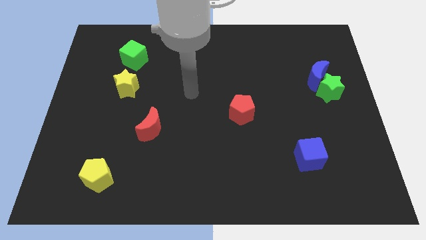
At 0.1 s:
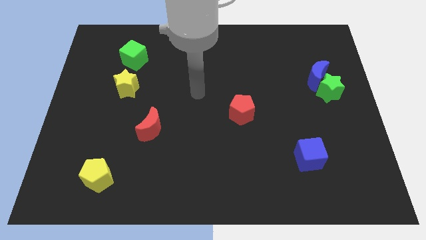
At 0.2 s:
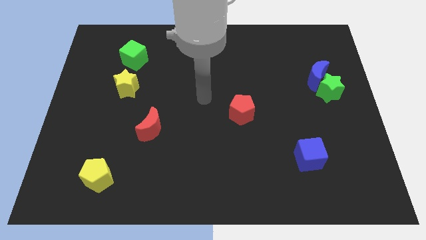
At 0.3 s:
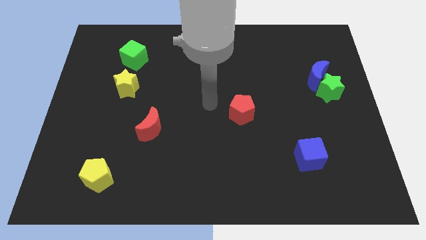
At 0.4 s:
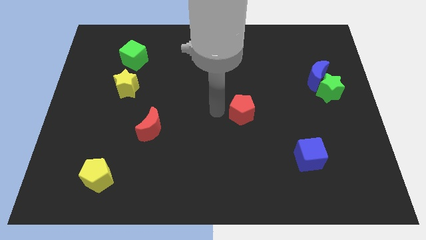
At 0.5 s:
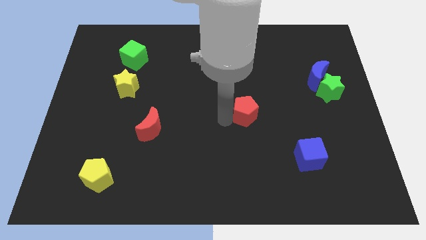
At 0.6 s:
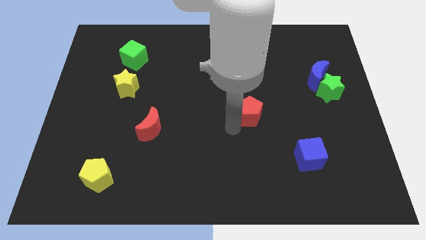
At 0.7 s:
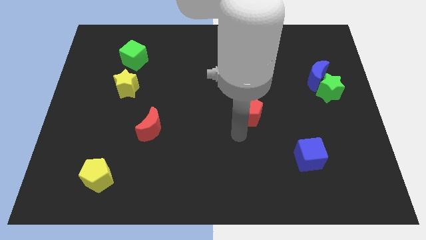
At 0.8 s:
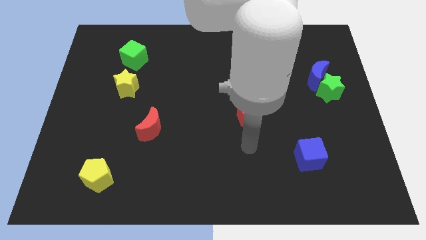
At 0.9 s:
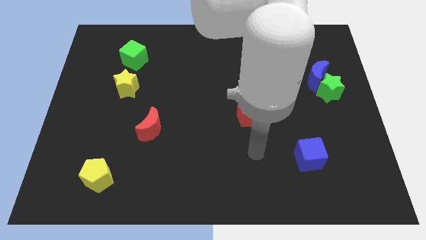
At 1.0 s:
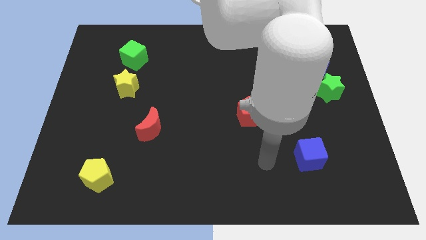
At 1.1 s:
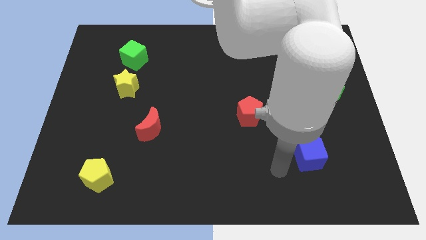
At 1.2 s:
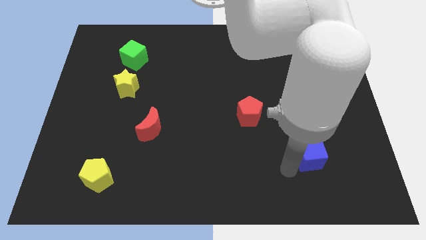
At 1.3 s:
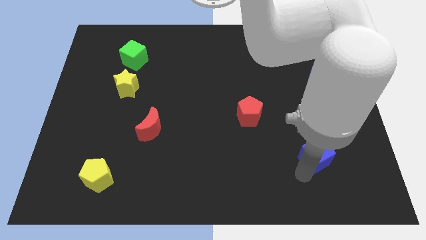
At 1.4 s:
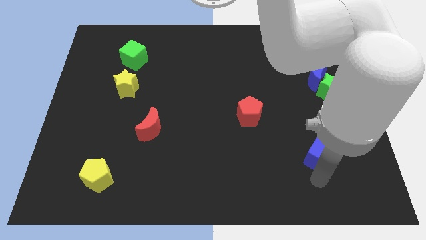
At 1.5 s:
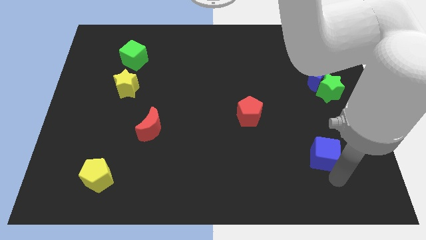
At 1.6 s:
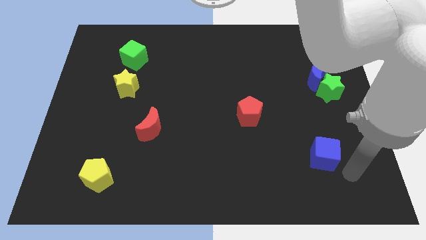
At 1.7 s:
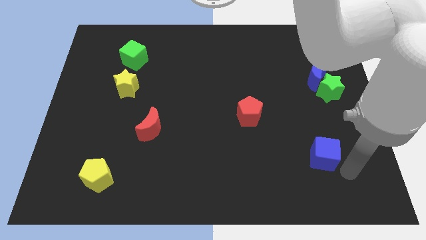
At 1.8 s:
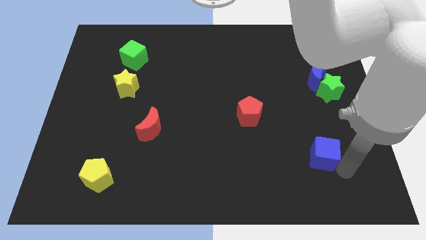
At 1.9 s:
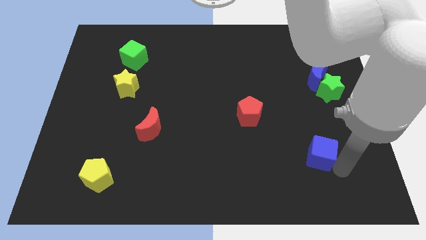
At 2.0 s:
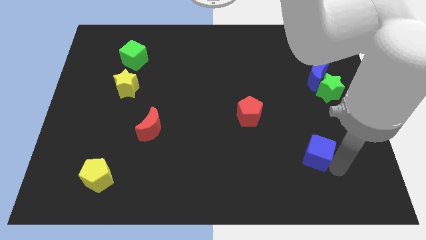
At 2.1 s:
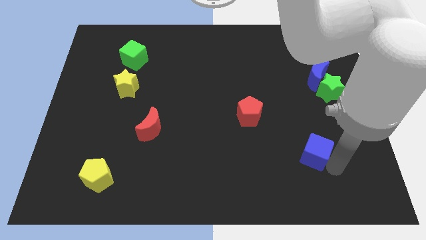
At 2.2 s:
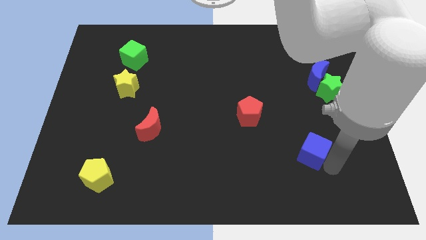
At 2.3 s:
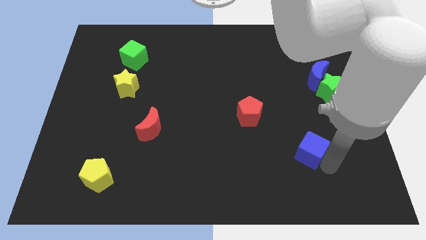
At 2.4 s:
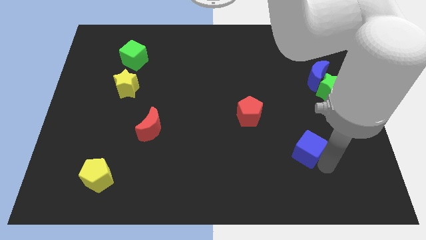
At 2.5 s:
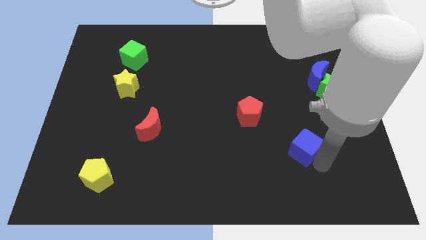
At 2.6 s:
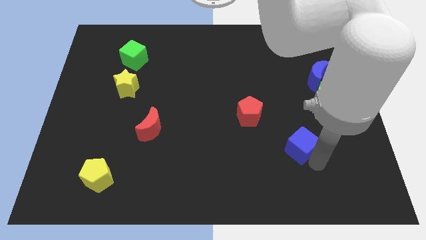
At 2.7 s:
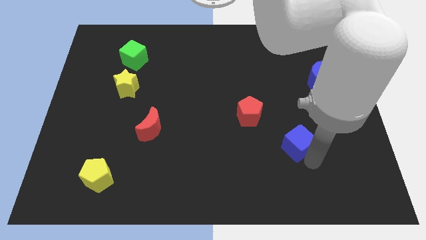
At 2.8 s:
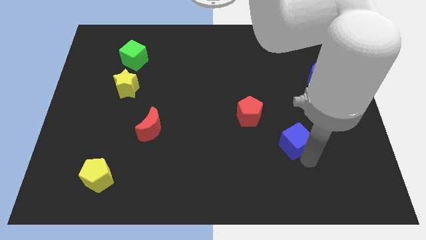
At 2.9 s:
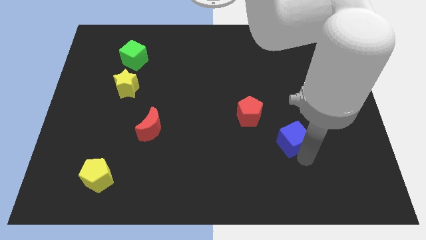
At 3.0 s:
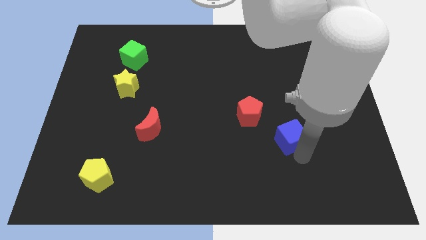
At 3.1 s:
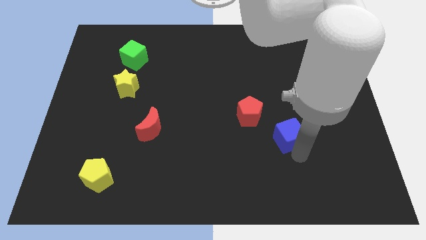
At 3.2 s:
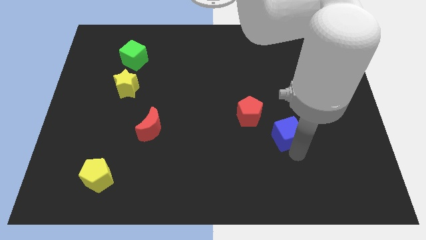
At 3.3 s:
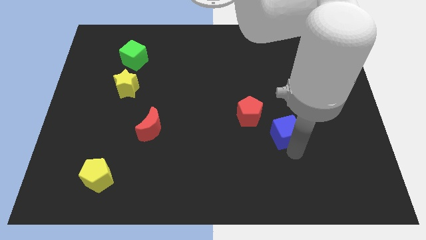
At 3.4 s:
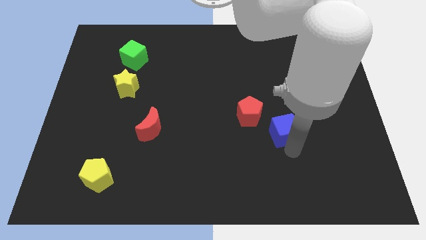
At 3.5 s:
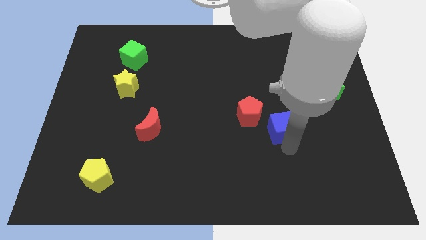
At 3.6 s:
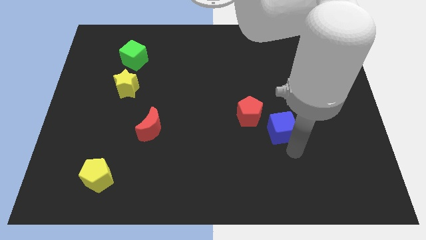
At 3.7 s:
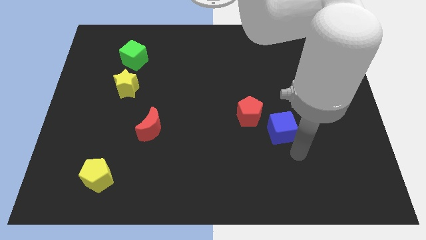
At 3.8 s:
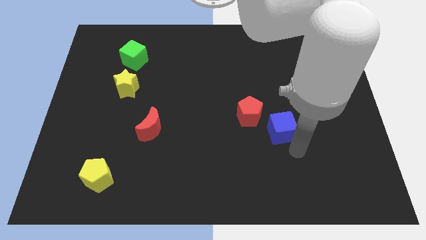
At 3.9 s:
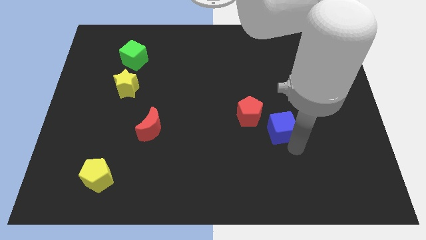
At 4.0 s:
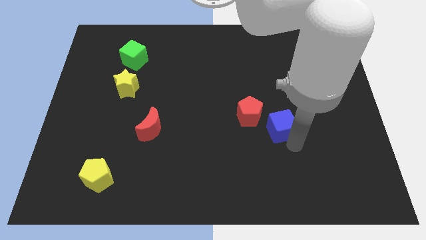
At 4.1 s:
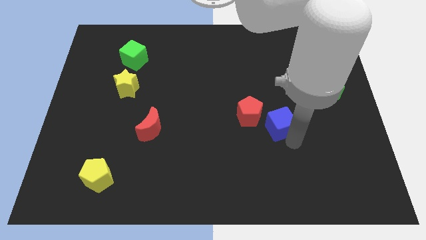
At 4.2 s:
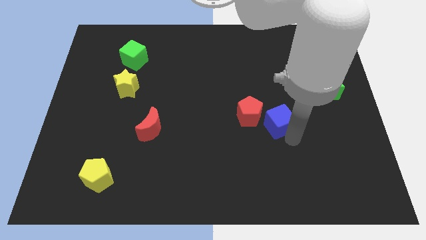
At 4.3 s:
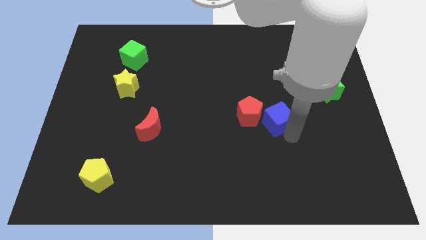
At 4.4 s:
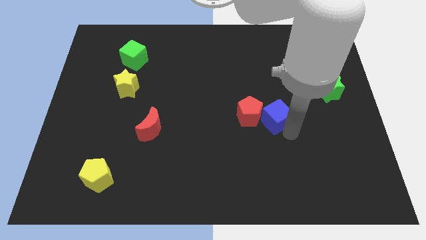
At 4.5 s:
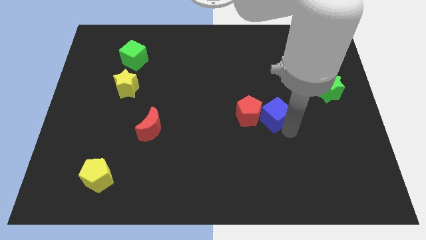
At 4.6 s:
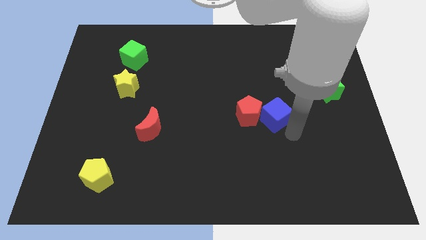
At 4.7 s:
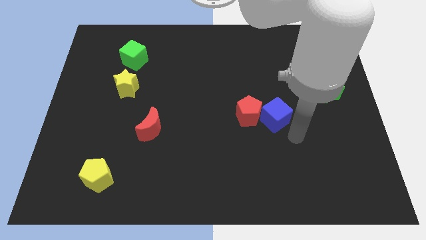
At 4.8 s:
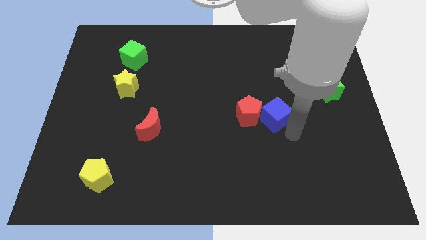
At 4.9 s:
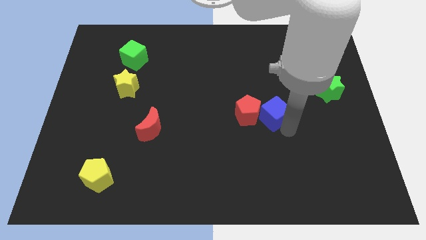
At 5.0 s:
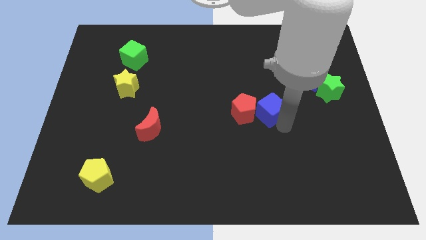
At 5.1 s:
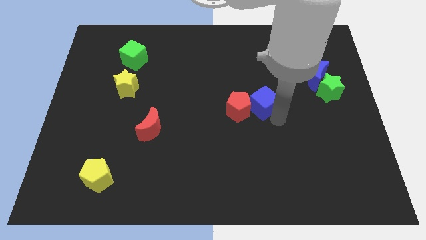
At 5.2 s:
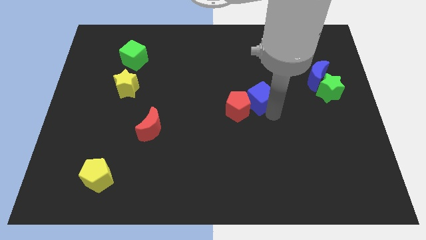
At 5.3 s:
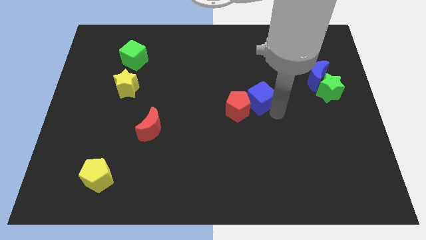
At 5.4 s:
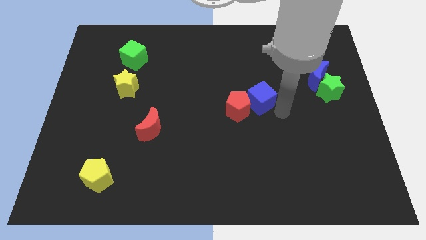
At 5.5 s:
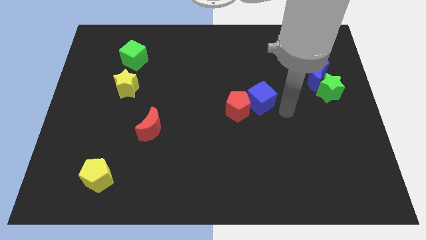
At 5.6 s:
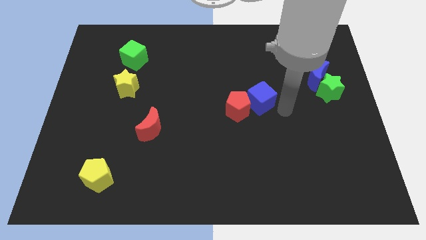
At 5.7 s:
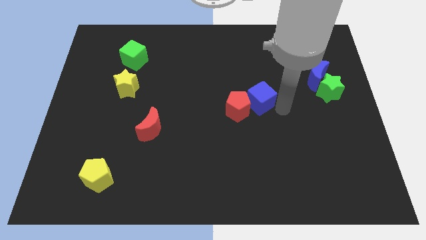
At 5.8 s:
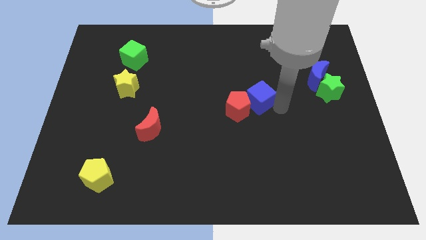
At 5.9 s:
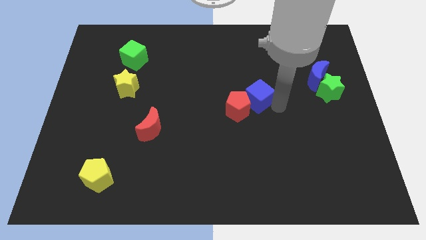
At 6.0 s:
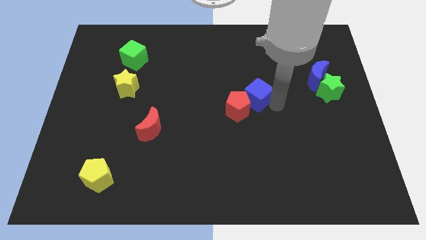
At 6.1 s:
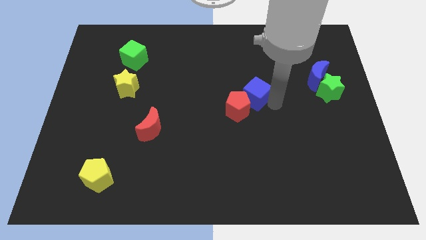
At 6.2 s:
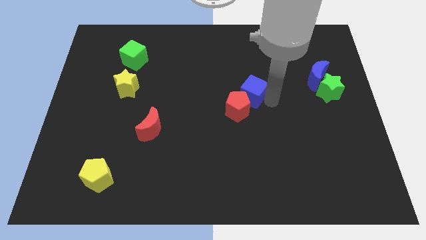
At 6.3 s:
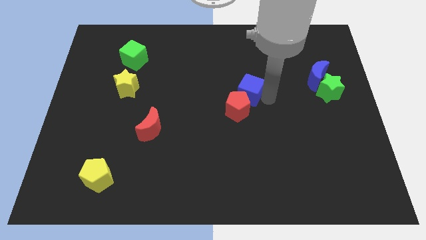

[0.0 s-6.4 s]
slide the blue cube up and then left

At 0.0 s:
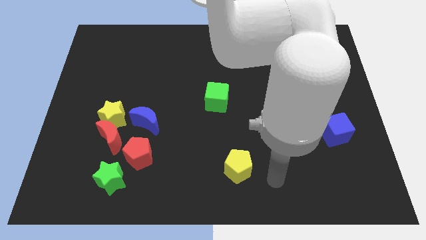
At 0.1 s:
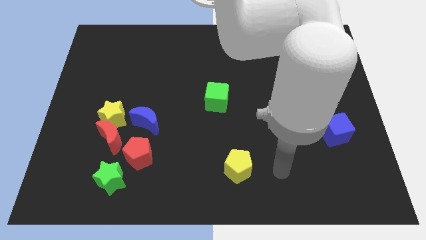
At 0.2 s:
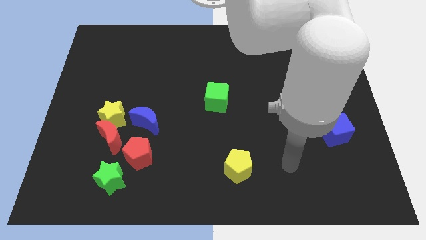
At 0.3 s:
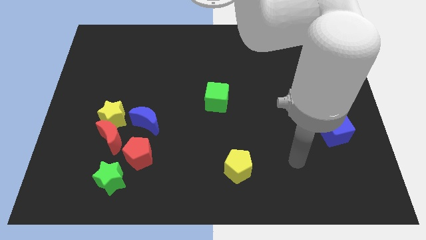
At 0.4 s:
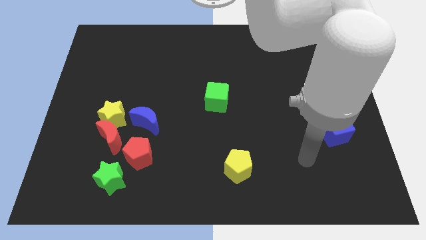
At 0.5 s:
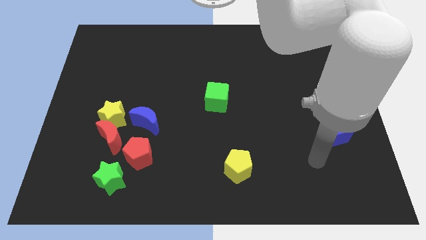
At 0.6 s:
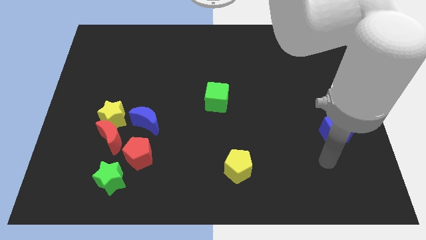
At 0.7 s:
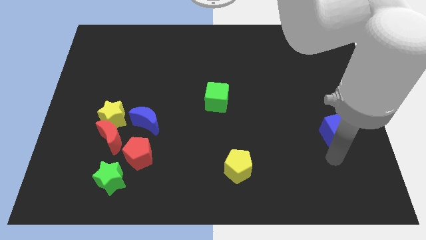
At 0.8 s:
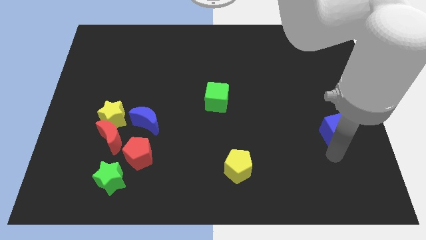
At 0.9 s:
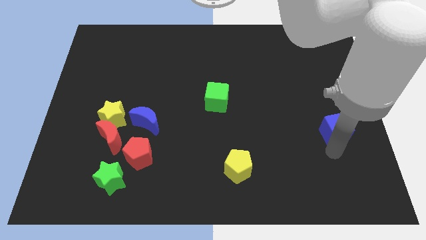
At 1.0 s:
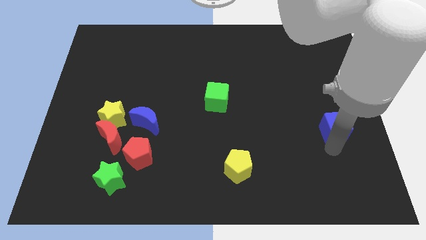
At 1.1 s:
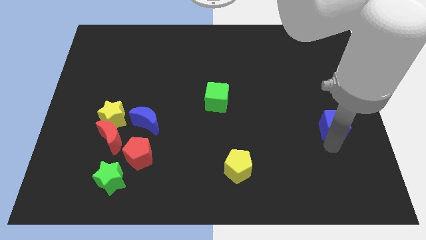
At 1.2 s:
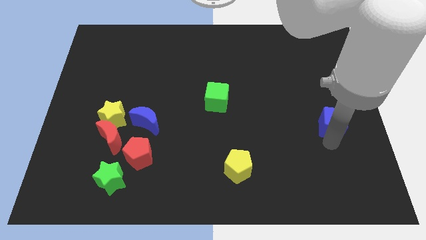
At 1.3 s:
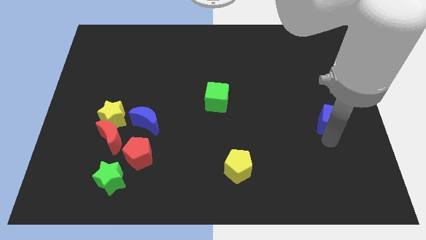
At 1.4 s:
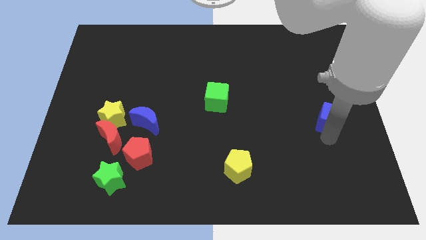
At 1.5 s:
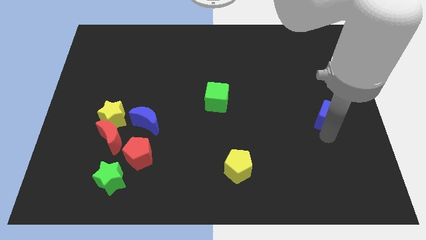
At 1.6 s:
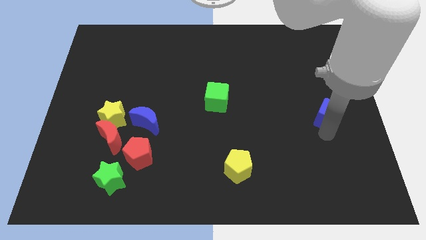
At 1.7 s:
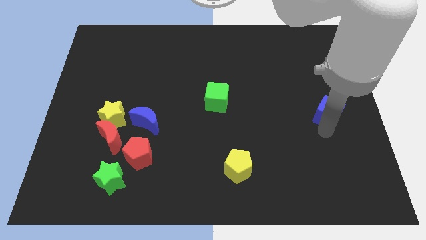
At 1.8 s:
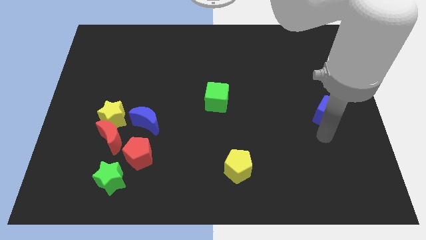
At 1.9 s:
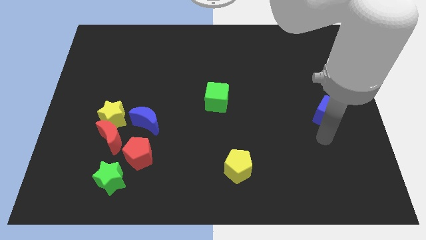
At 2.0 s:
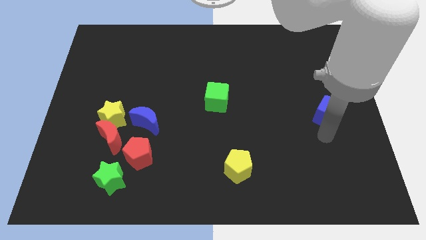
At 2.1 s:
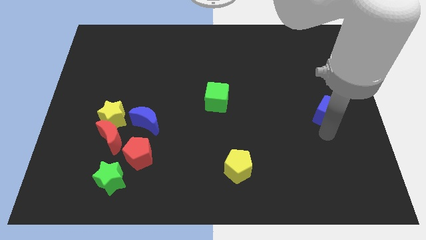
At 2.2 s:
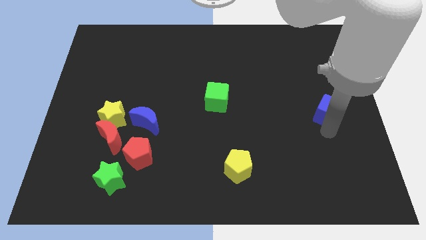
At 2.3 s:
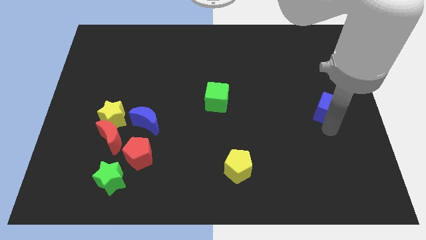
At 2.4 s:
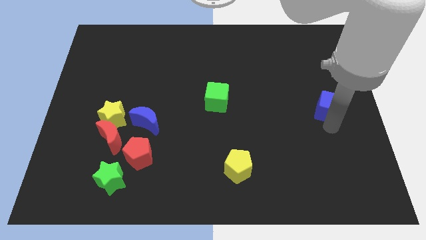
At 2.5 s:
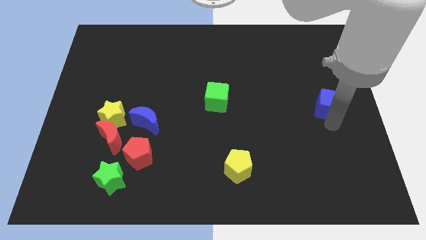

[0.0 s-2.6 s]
slightly push the blue cube upwards
